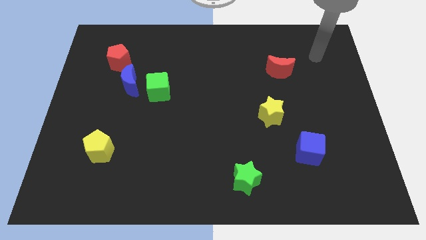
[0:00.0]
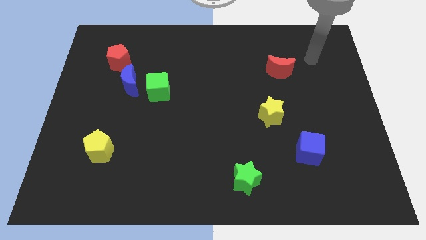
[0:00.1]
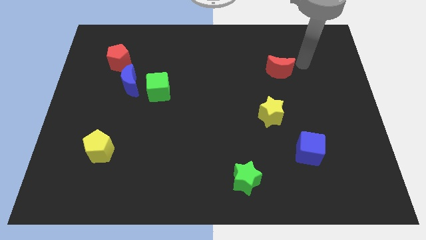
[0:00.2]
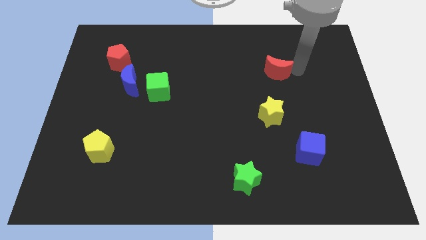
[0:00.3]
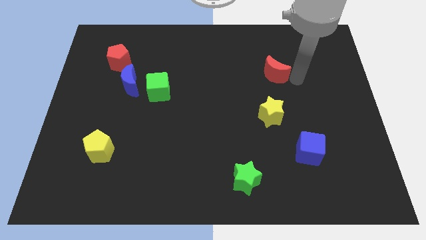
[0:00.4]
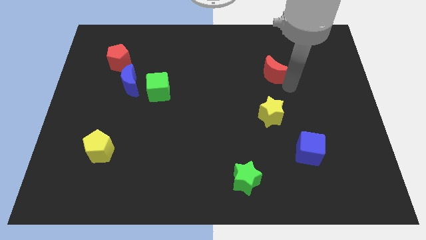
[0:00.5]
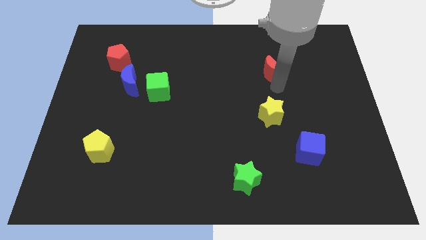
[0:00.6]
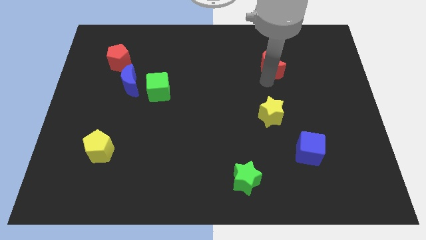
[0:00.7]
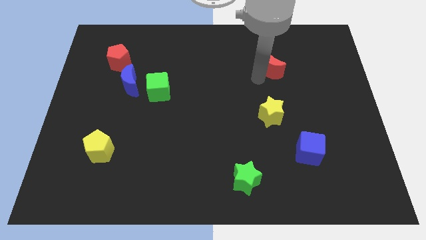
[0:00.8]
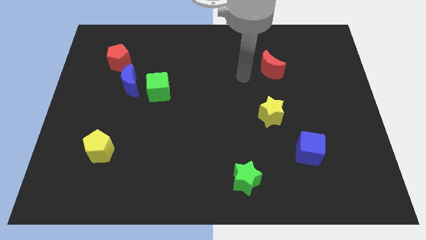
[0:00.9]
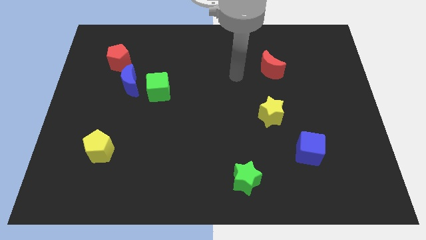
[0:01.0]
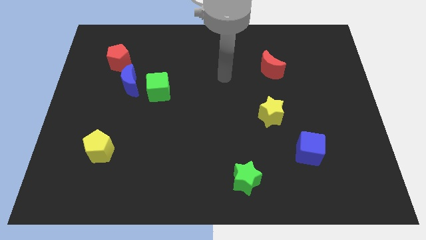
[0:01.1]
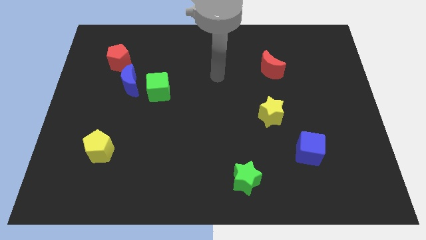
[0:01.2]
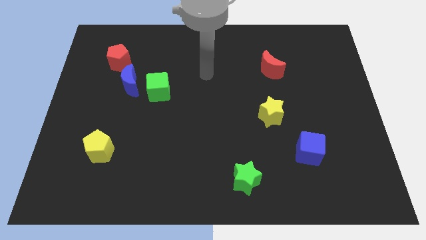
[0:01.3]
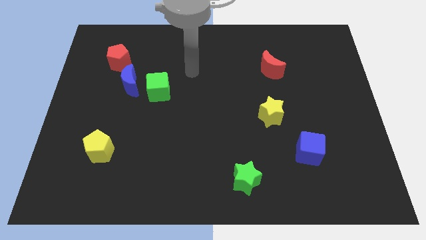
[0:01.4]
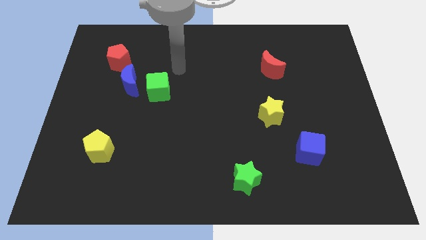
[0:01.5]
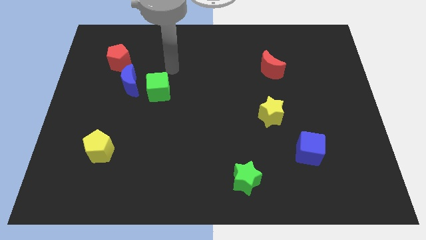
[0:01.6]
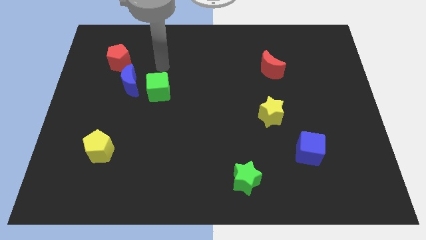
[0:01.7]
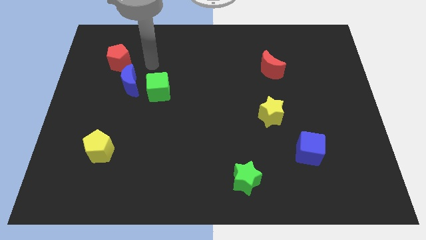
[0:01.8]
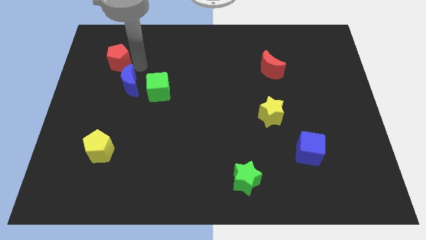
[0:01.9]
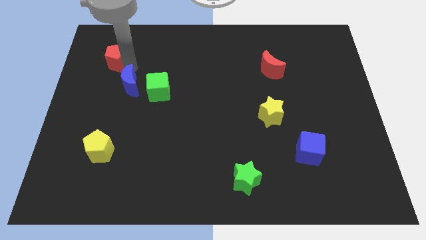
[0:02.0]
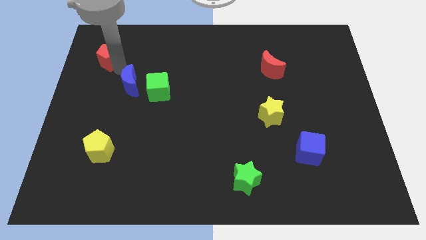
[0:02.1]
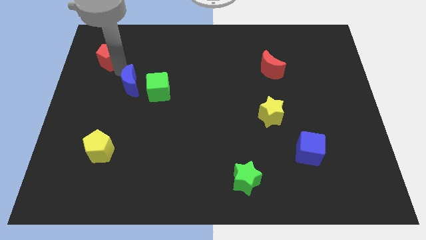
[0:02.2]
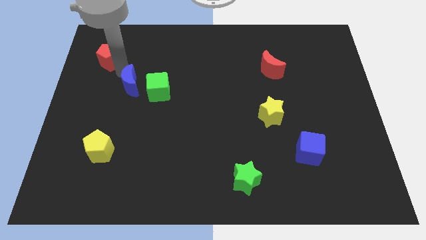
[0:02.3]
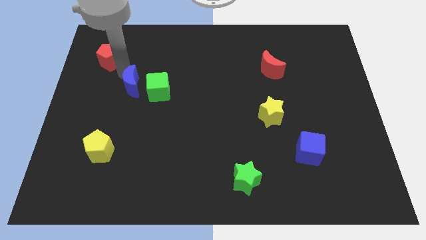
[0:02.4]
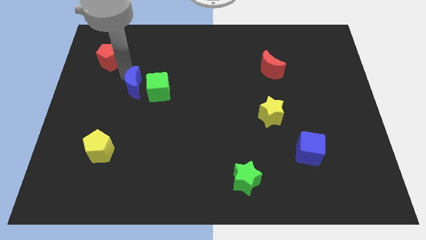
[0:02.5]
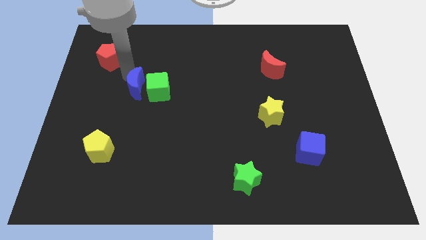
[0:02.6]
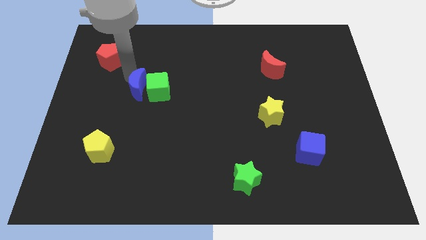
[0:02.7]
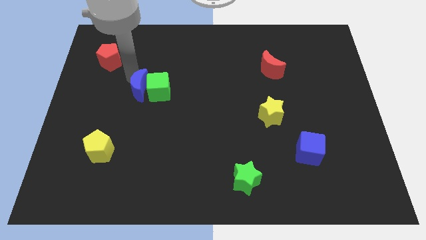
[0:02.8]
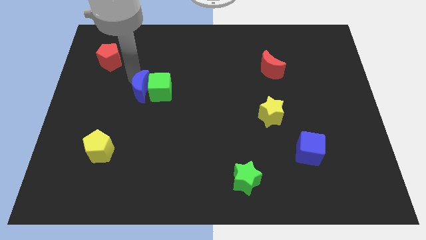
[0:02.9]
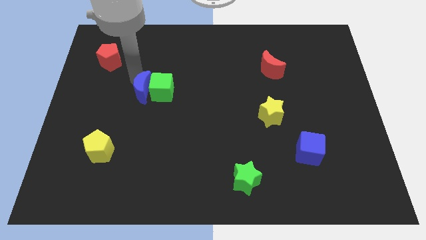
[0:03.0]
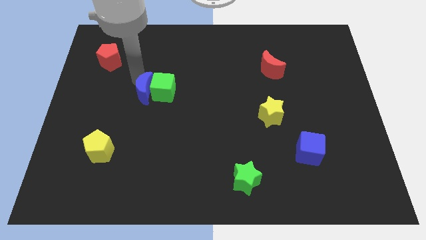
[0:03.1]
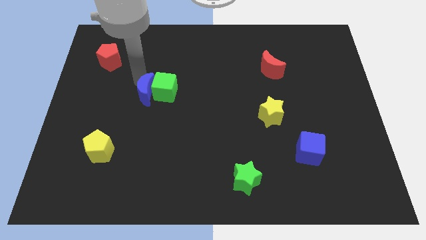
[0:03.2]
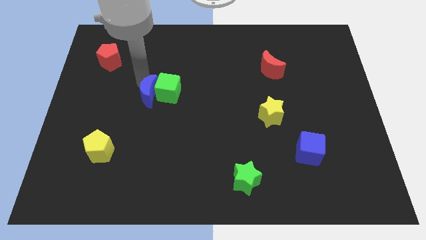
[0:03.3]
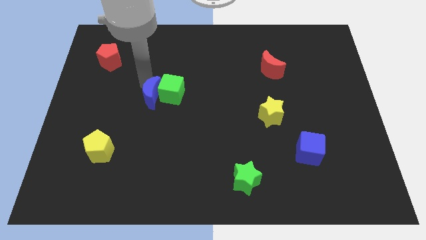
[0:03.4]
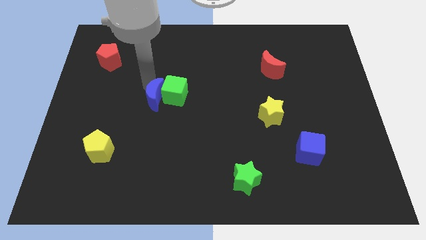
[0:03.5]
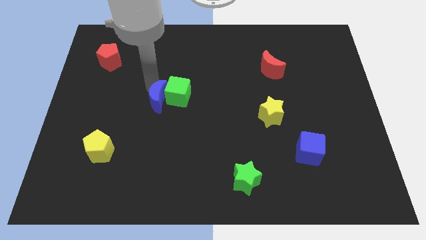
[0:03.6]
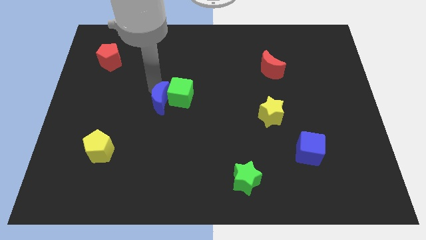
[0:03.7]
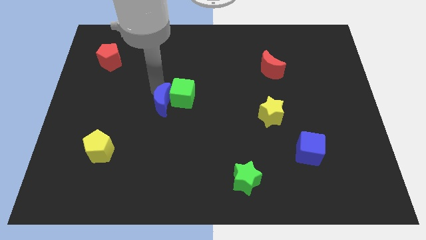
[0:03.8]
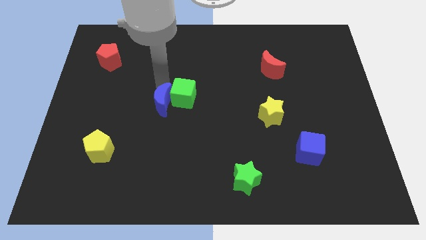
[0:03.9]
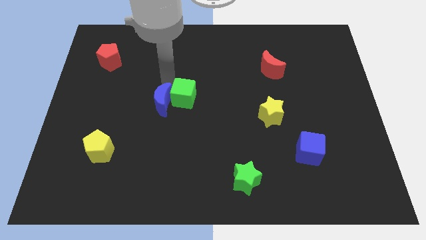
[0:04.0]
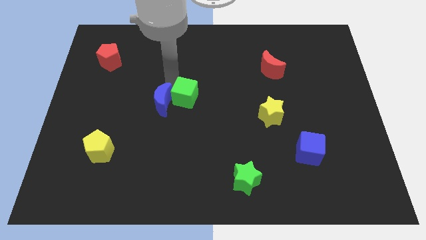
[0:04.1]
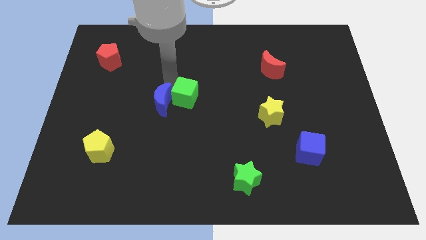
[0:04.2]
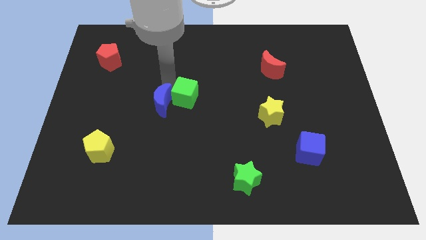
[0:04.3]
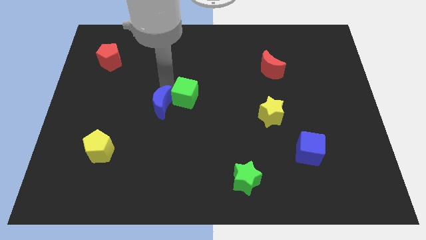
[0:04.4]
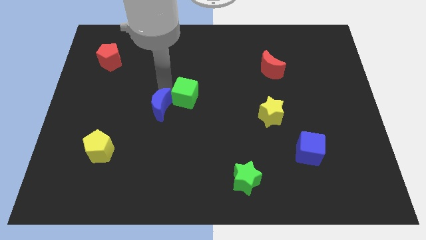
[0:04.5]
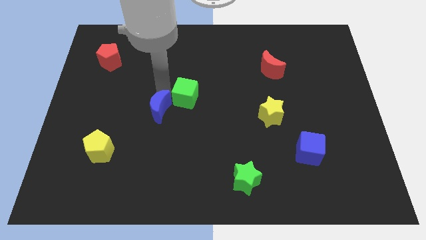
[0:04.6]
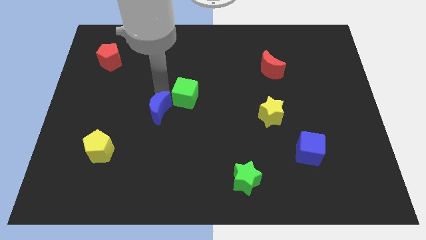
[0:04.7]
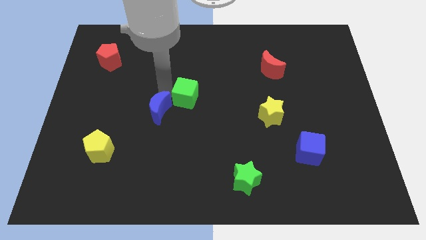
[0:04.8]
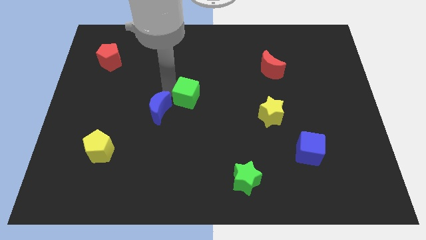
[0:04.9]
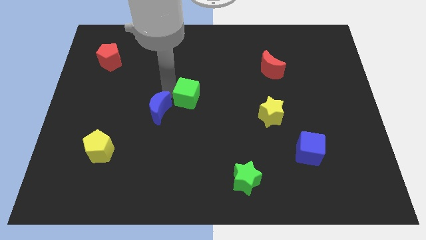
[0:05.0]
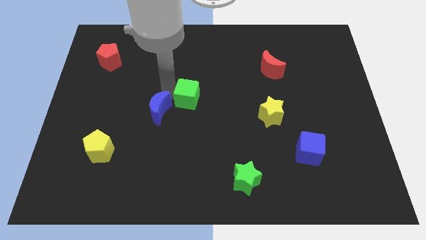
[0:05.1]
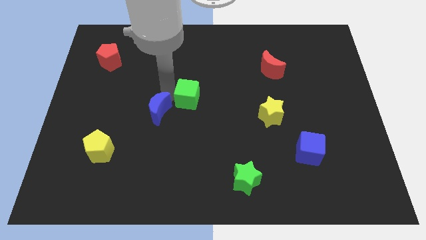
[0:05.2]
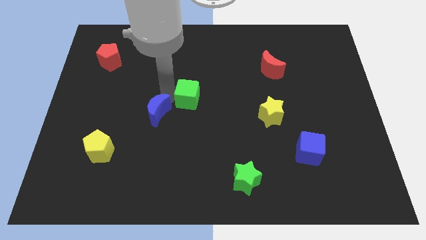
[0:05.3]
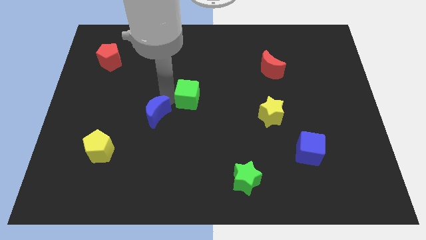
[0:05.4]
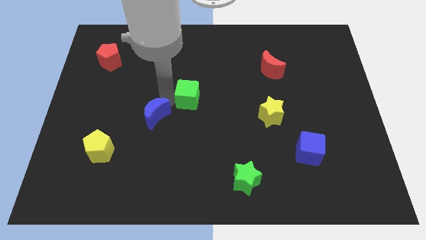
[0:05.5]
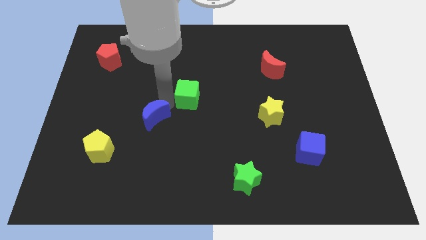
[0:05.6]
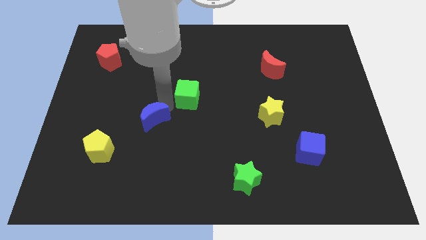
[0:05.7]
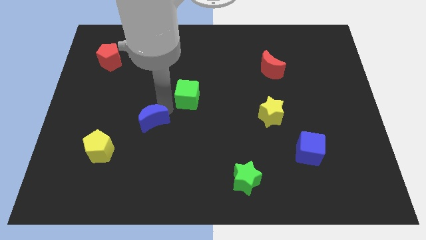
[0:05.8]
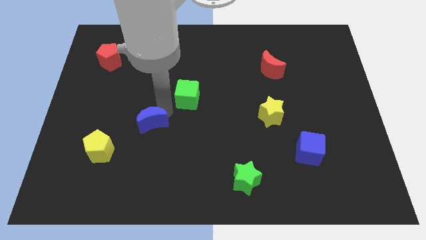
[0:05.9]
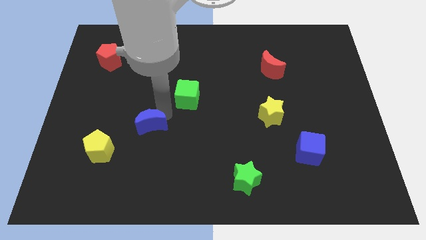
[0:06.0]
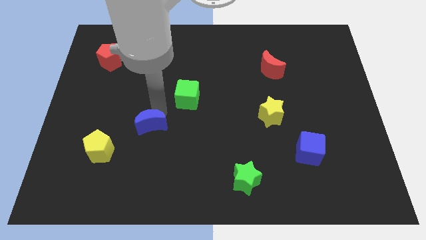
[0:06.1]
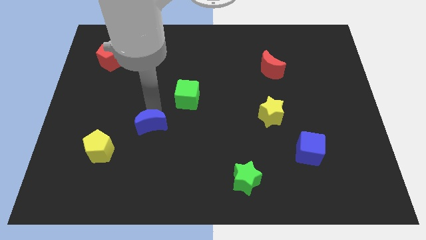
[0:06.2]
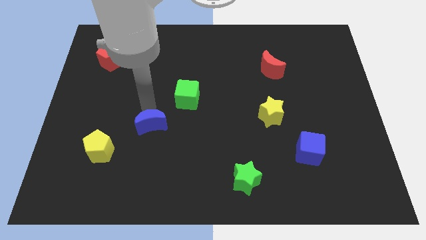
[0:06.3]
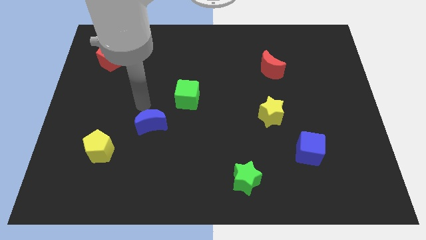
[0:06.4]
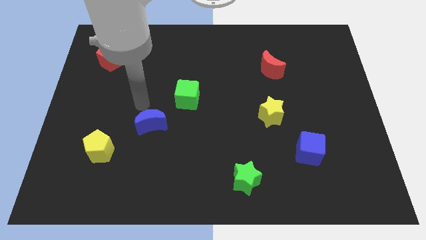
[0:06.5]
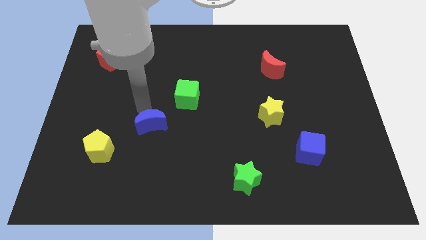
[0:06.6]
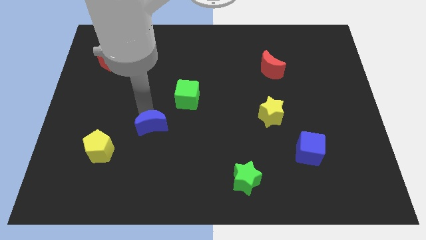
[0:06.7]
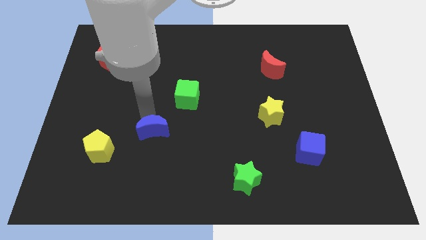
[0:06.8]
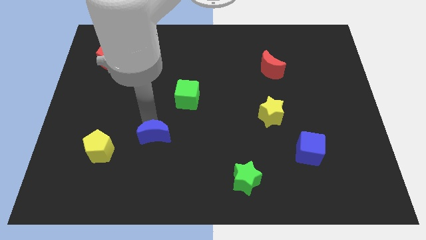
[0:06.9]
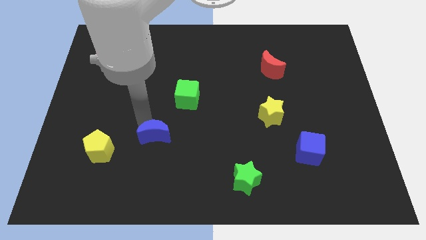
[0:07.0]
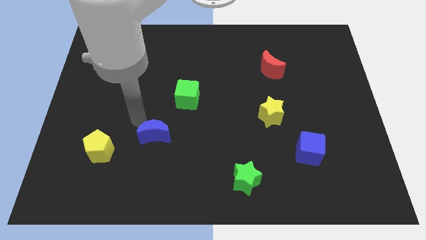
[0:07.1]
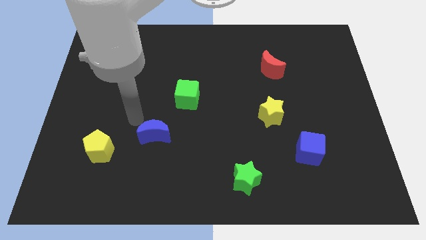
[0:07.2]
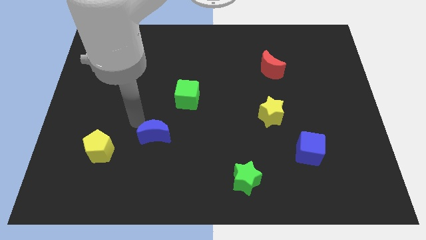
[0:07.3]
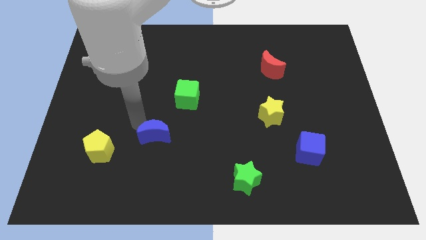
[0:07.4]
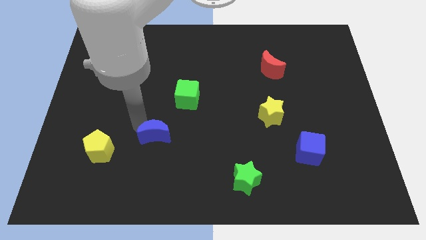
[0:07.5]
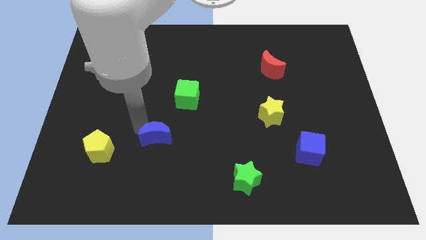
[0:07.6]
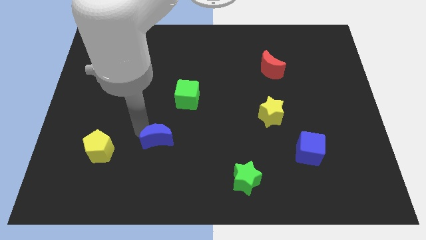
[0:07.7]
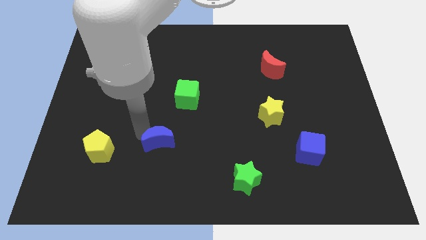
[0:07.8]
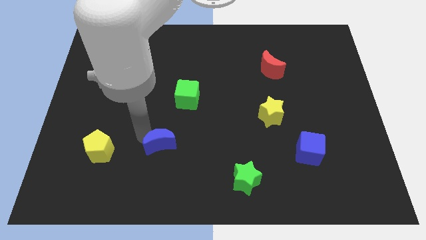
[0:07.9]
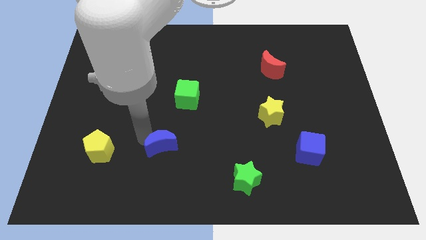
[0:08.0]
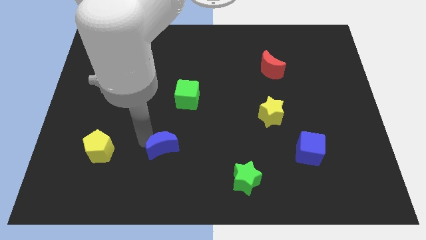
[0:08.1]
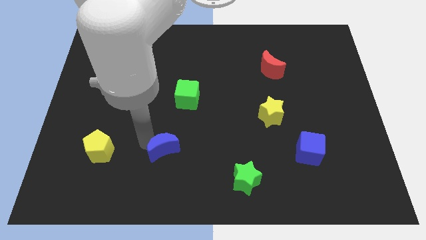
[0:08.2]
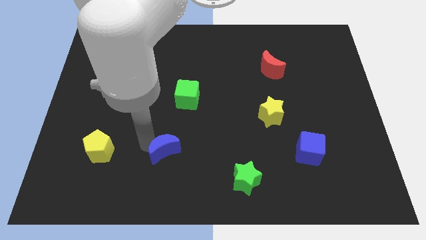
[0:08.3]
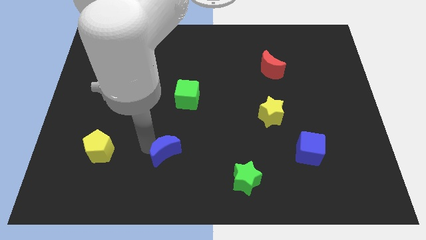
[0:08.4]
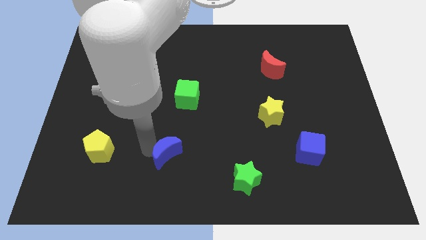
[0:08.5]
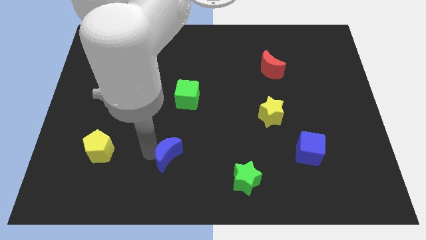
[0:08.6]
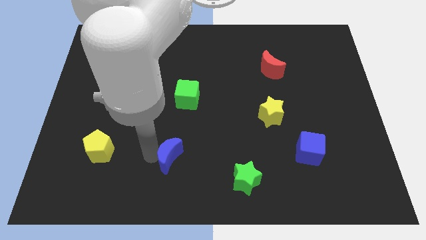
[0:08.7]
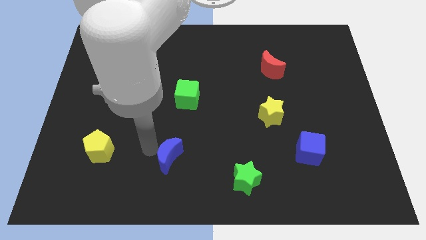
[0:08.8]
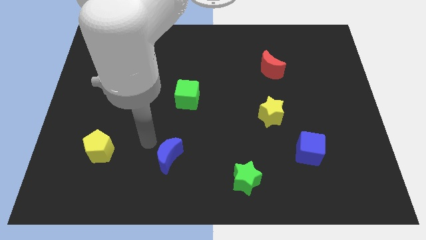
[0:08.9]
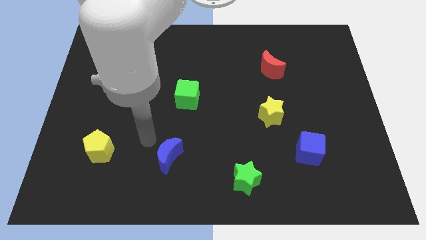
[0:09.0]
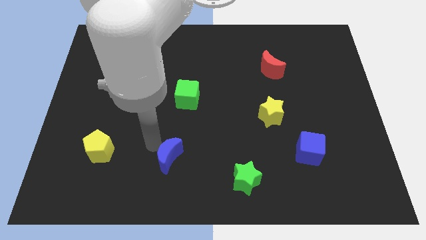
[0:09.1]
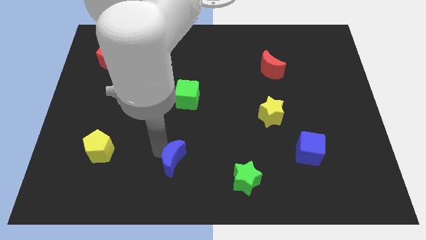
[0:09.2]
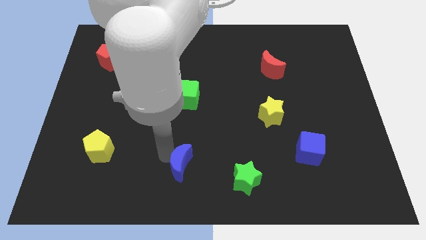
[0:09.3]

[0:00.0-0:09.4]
push the blue moon left of the green star
